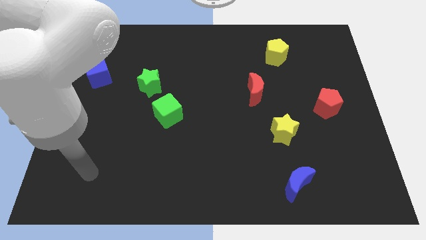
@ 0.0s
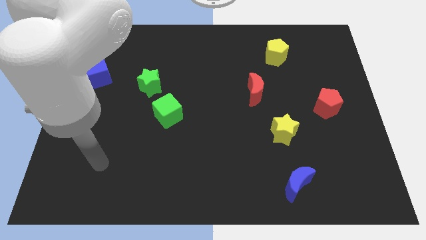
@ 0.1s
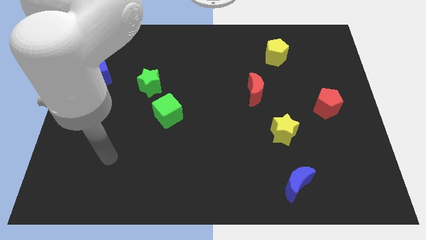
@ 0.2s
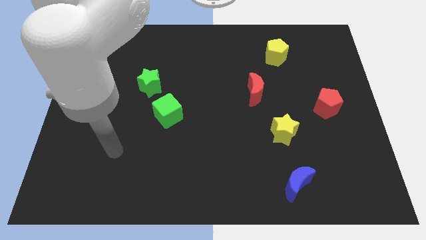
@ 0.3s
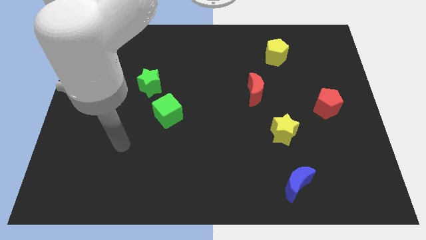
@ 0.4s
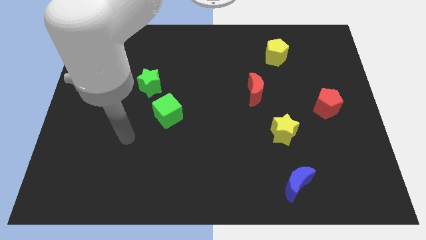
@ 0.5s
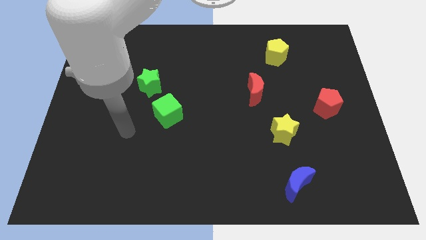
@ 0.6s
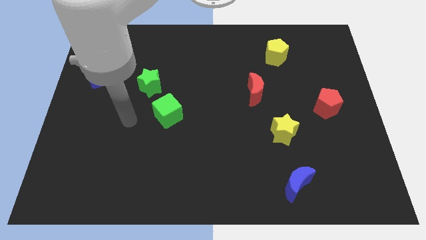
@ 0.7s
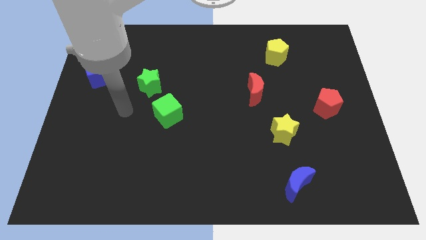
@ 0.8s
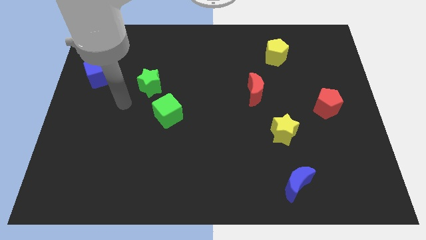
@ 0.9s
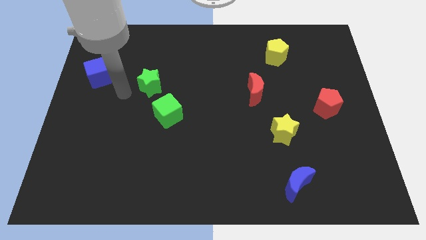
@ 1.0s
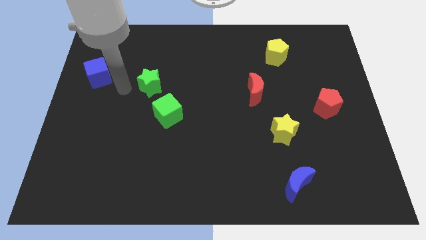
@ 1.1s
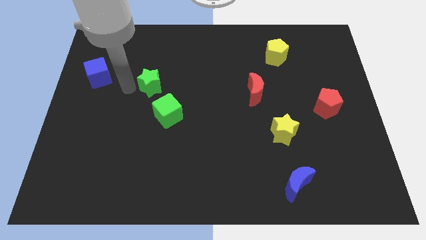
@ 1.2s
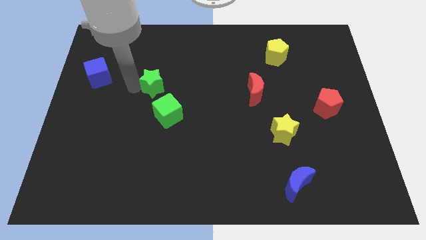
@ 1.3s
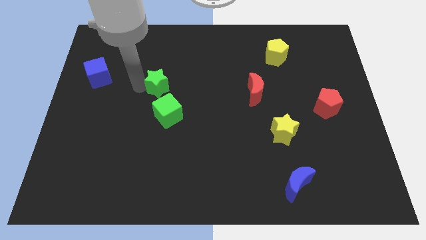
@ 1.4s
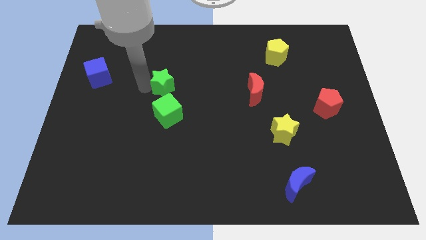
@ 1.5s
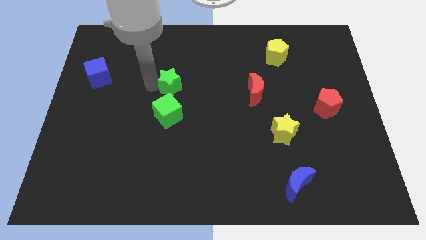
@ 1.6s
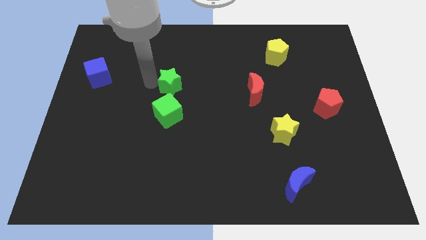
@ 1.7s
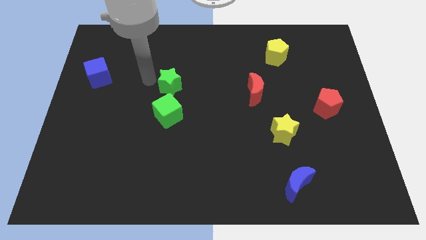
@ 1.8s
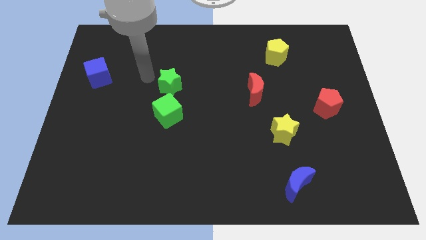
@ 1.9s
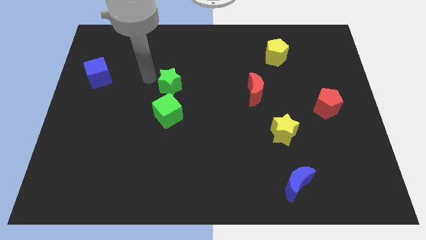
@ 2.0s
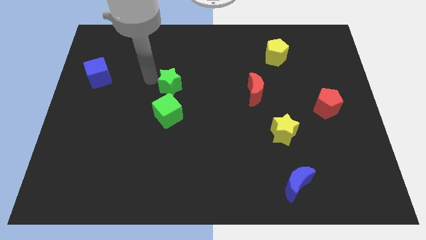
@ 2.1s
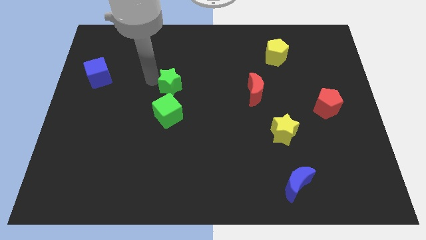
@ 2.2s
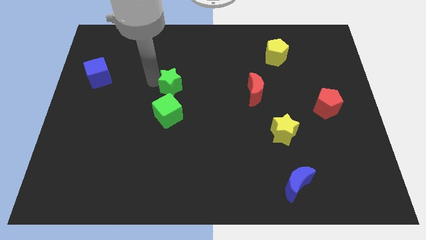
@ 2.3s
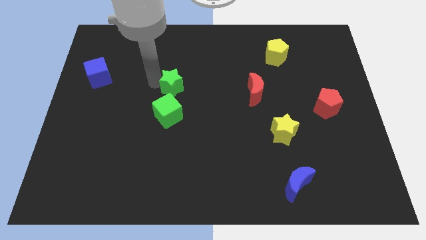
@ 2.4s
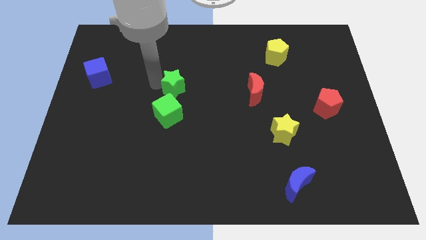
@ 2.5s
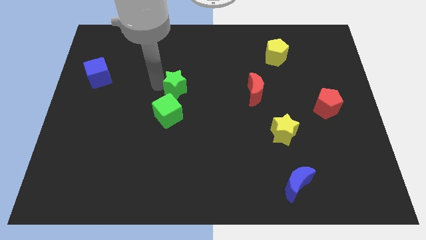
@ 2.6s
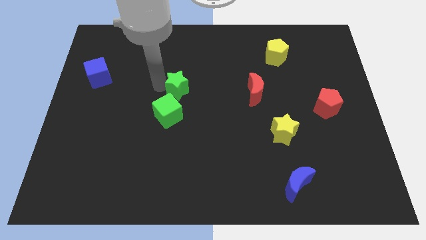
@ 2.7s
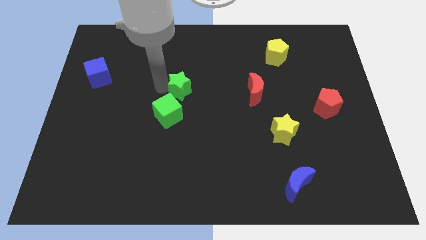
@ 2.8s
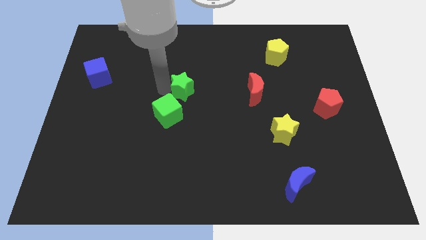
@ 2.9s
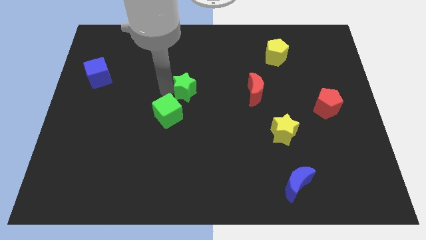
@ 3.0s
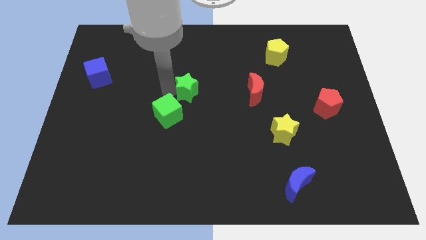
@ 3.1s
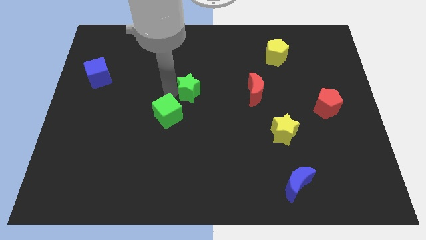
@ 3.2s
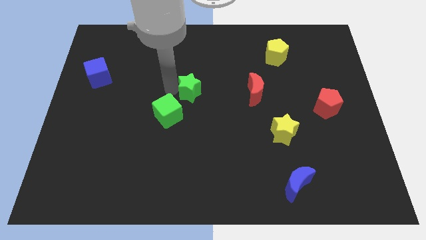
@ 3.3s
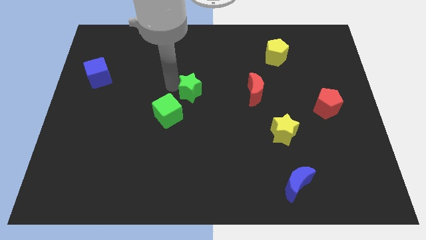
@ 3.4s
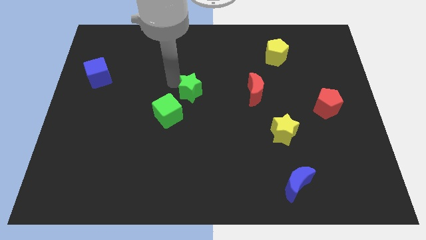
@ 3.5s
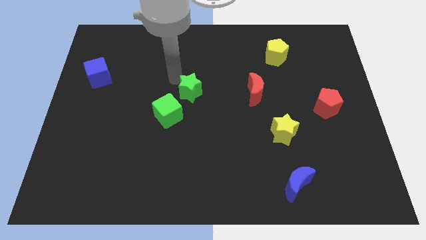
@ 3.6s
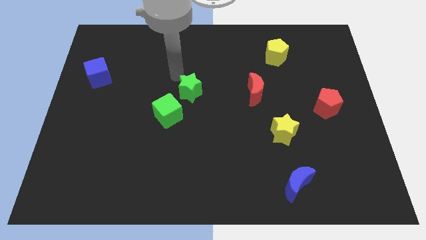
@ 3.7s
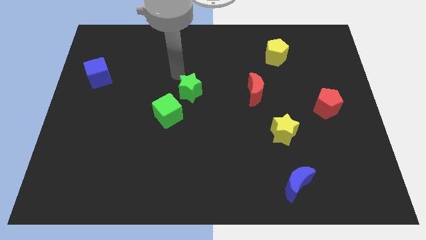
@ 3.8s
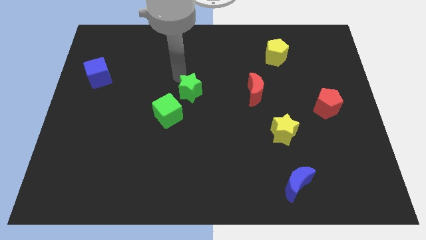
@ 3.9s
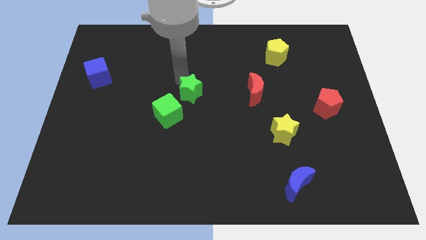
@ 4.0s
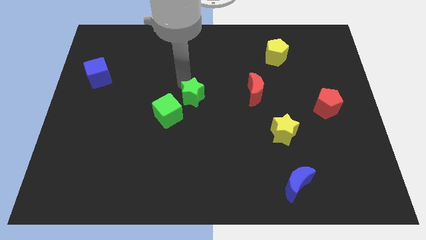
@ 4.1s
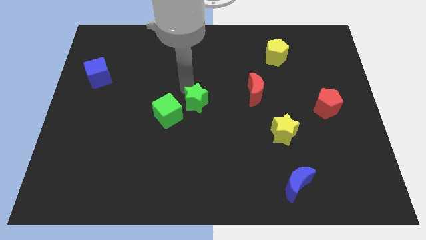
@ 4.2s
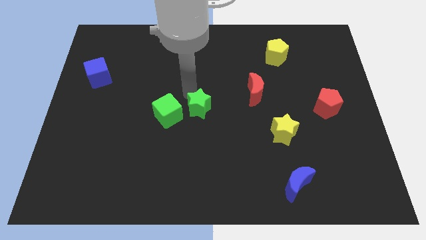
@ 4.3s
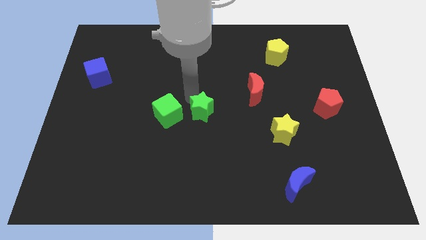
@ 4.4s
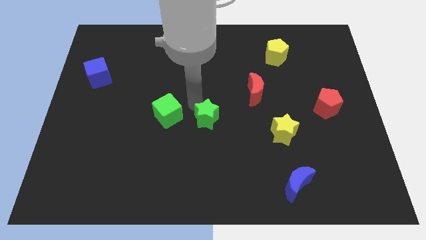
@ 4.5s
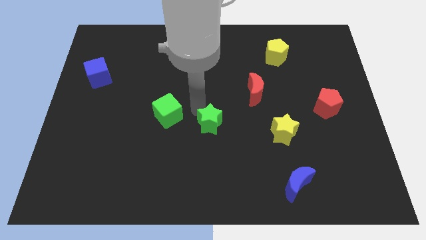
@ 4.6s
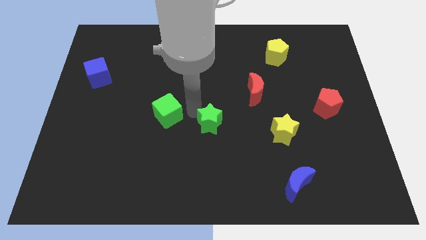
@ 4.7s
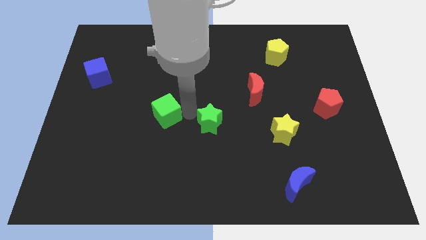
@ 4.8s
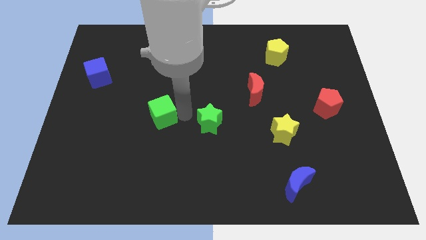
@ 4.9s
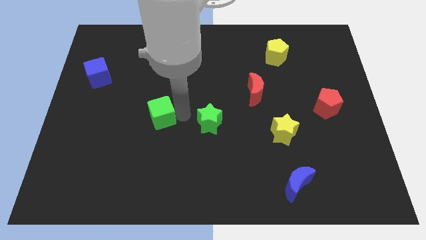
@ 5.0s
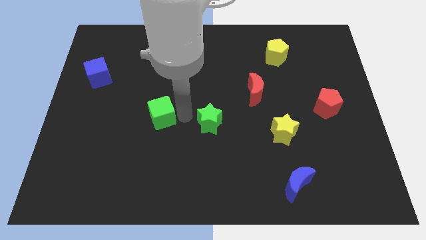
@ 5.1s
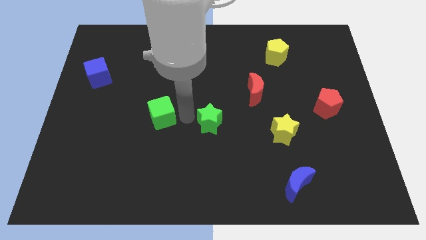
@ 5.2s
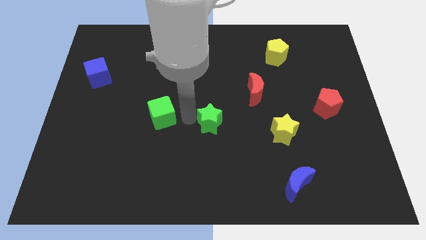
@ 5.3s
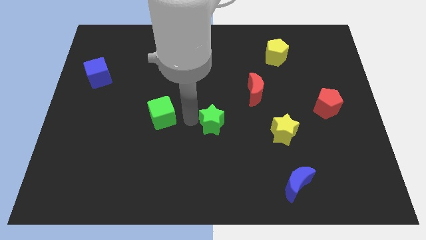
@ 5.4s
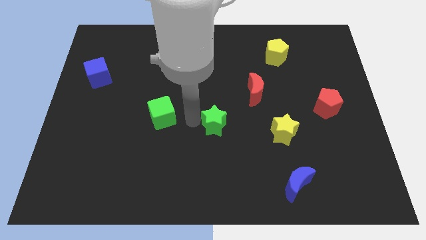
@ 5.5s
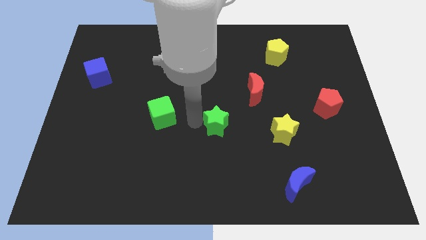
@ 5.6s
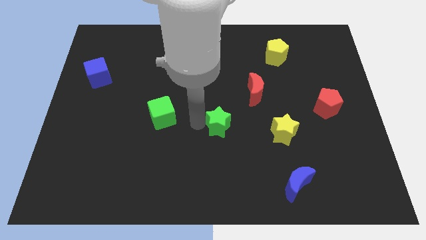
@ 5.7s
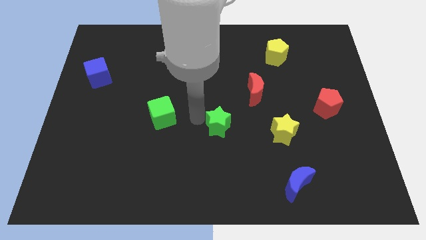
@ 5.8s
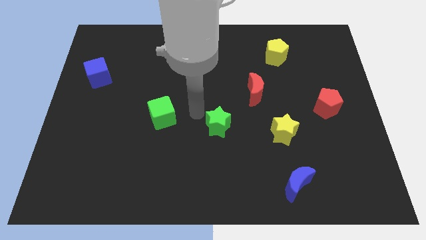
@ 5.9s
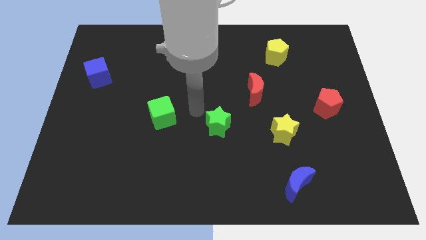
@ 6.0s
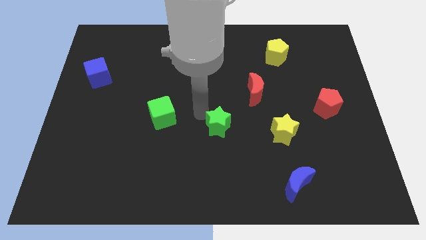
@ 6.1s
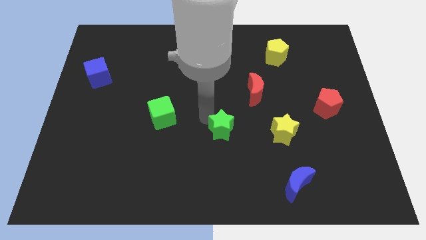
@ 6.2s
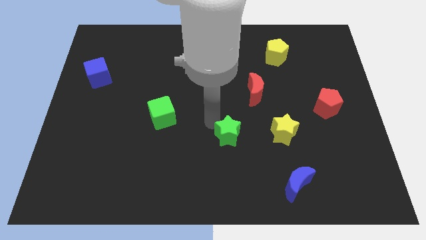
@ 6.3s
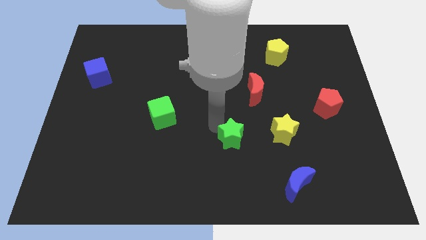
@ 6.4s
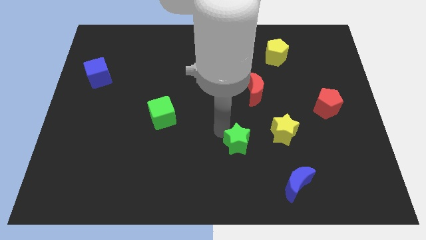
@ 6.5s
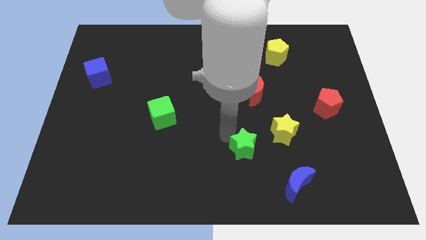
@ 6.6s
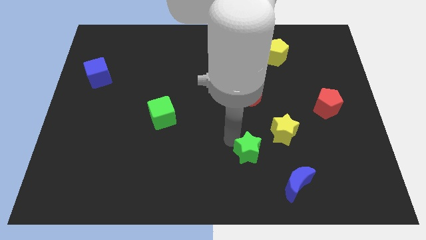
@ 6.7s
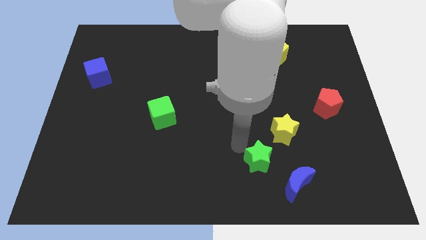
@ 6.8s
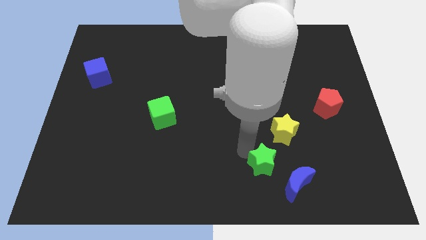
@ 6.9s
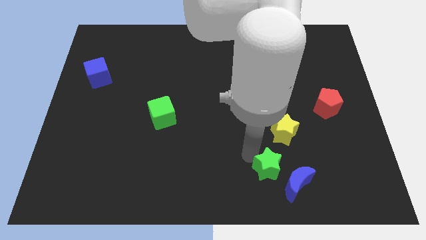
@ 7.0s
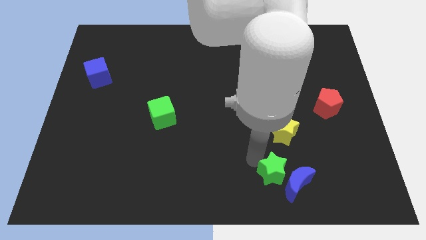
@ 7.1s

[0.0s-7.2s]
slide the green star to the blue moon

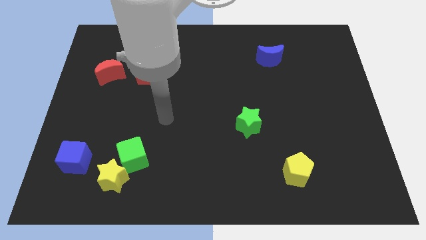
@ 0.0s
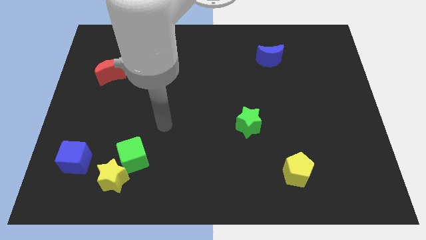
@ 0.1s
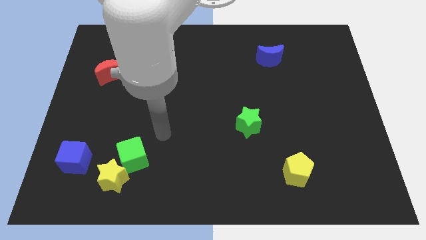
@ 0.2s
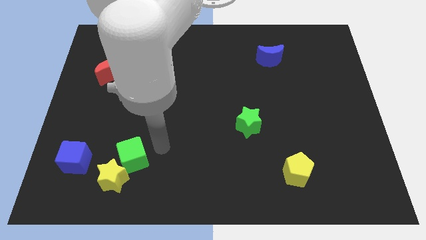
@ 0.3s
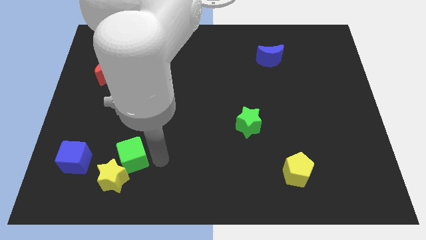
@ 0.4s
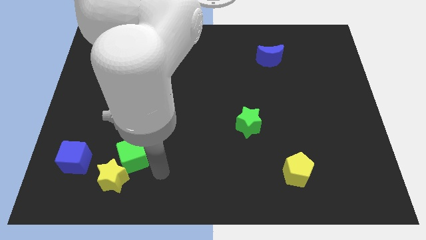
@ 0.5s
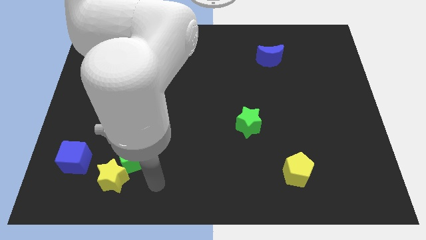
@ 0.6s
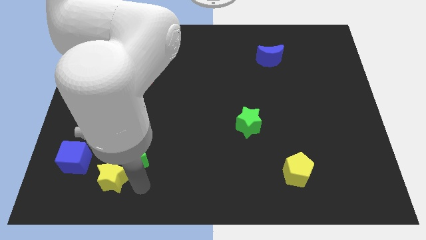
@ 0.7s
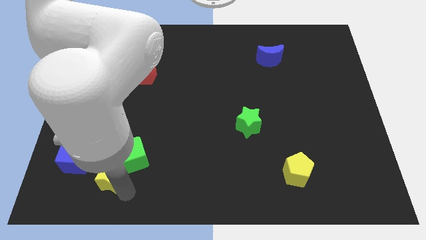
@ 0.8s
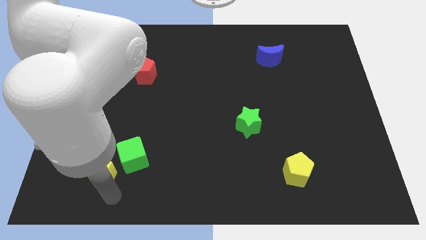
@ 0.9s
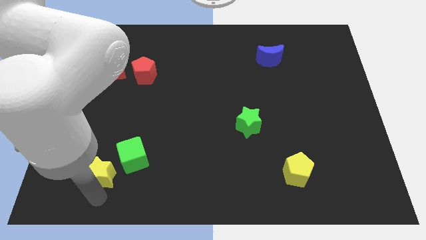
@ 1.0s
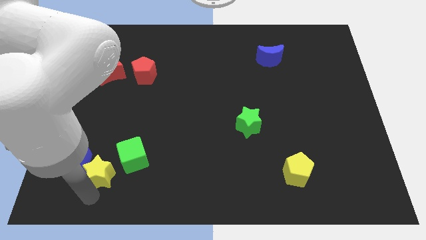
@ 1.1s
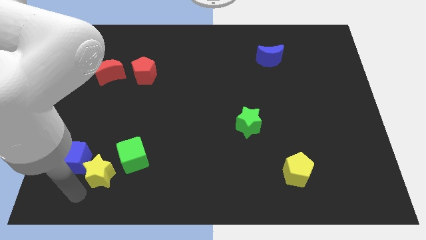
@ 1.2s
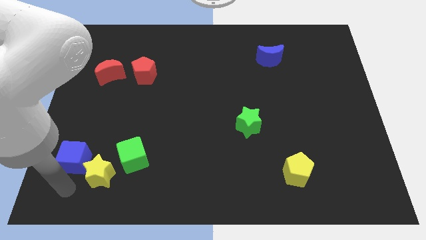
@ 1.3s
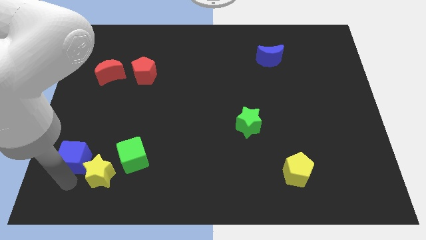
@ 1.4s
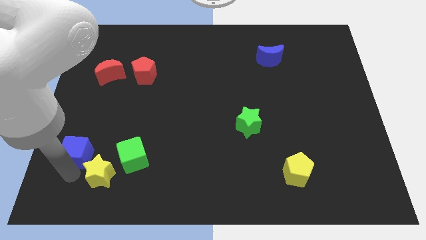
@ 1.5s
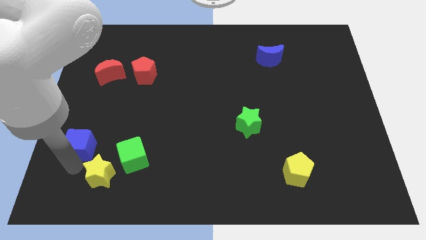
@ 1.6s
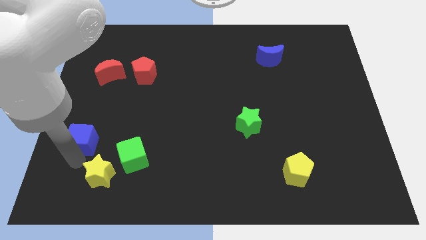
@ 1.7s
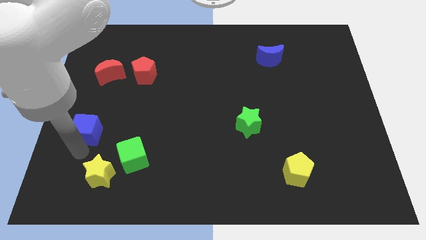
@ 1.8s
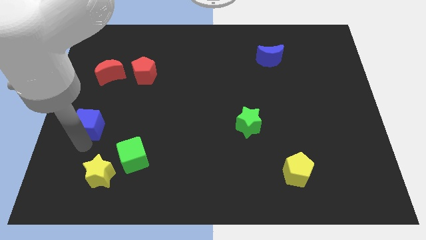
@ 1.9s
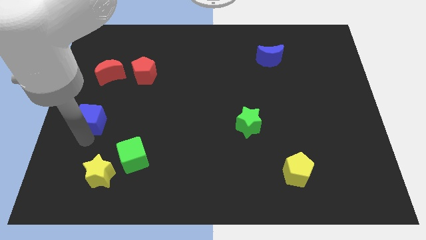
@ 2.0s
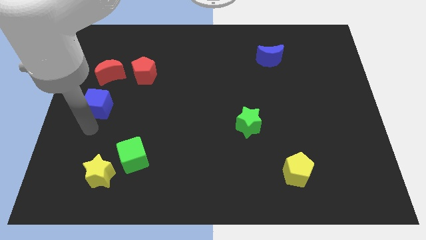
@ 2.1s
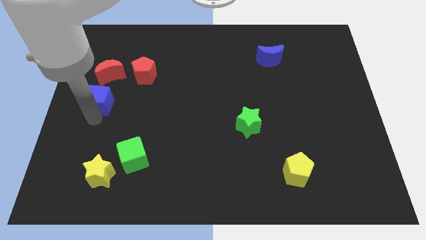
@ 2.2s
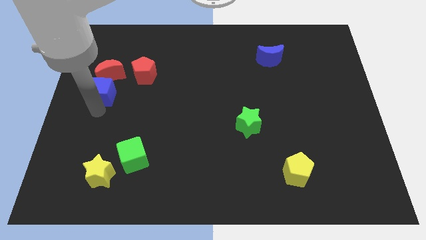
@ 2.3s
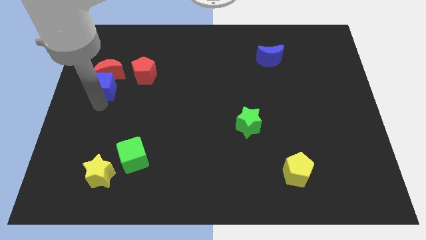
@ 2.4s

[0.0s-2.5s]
put the blue cube to the red moon
